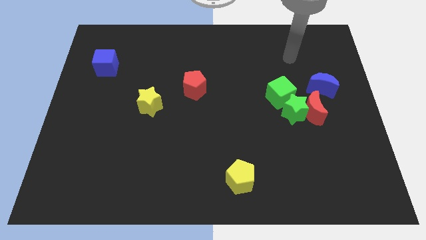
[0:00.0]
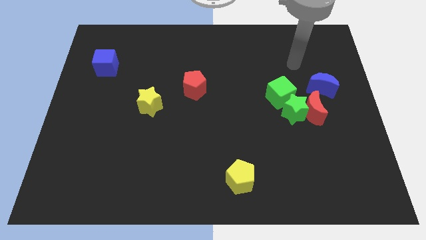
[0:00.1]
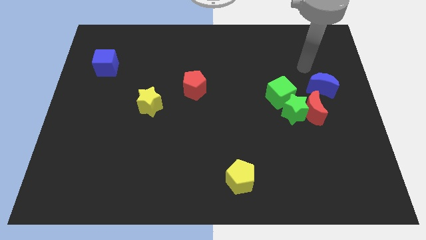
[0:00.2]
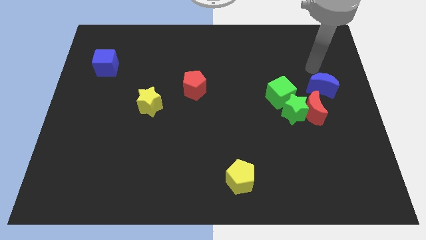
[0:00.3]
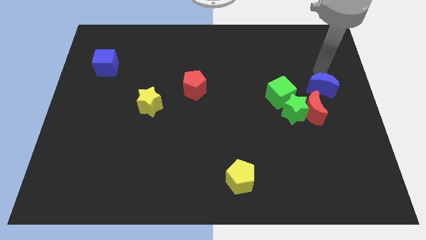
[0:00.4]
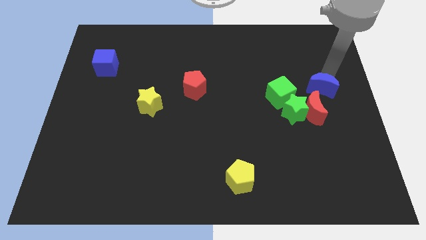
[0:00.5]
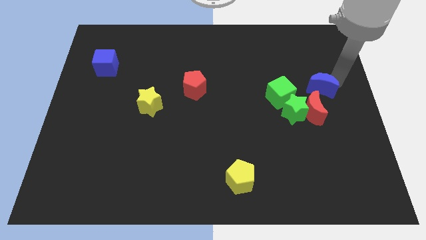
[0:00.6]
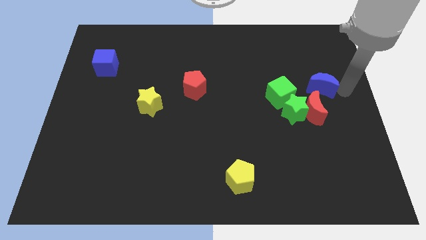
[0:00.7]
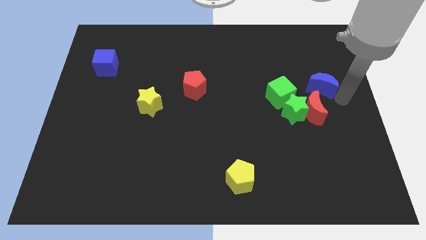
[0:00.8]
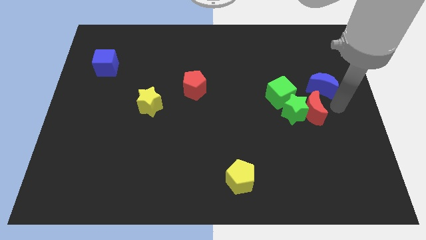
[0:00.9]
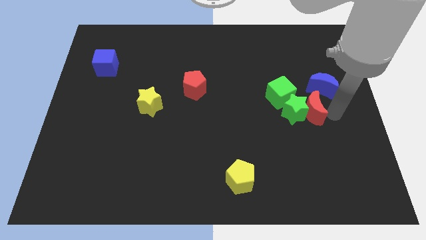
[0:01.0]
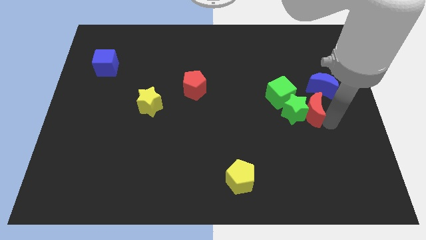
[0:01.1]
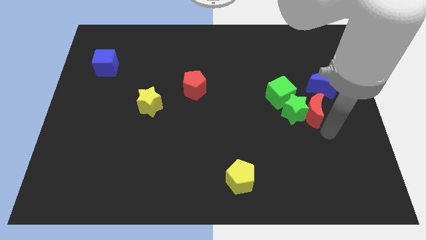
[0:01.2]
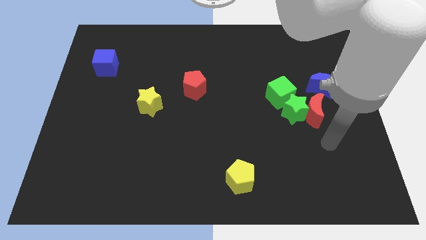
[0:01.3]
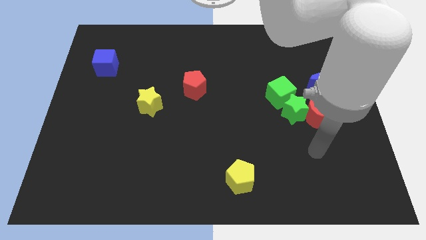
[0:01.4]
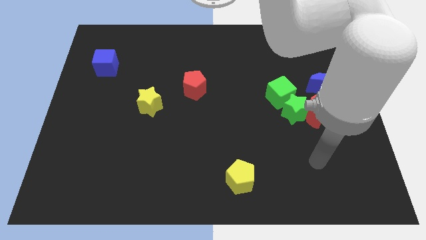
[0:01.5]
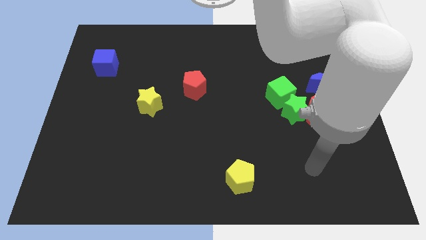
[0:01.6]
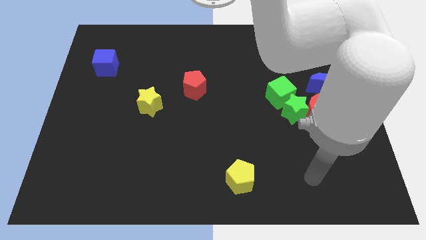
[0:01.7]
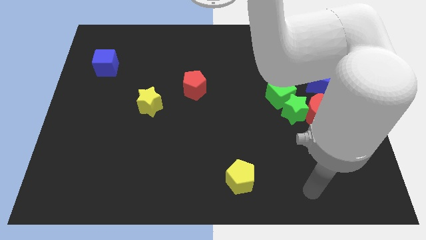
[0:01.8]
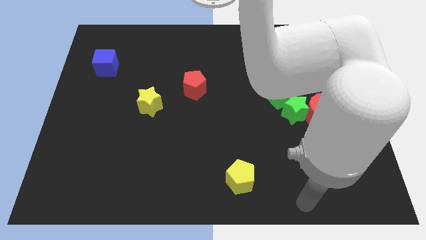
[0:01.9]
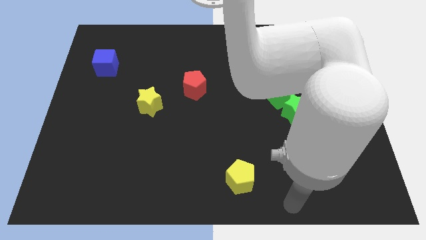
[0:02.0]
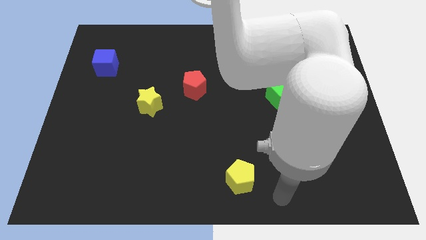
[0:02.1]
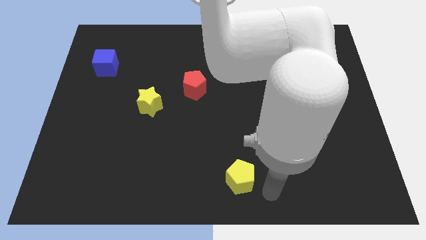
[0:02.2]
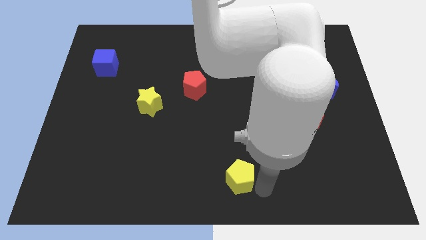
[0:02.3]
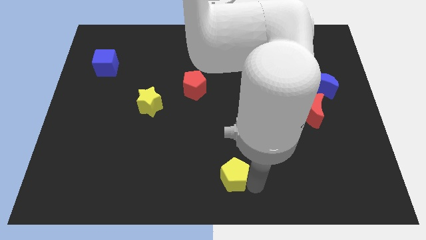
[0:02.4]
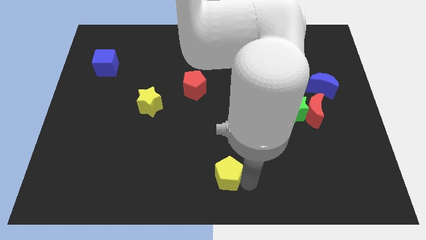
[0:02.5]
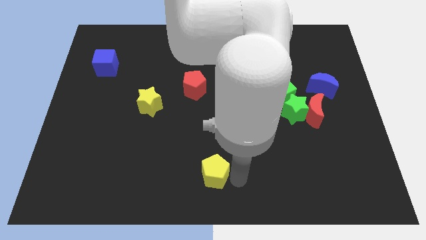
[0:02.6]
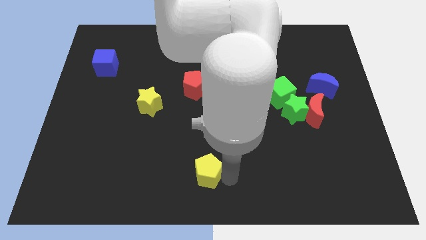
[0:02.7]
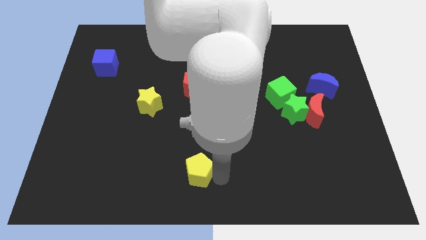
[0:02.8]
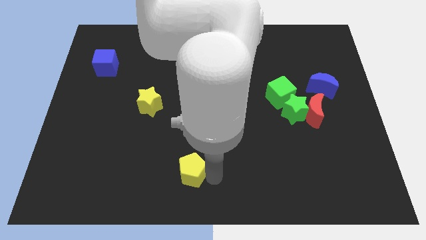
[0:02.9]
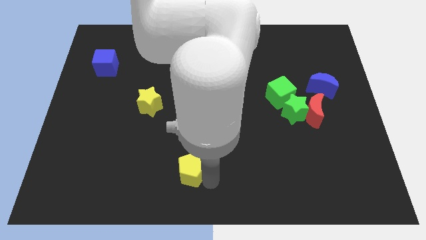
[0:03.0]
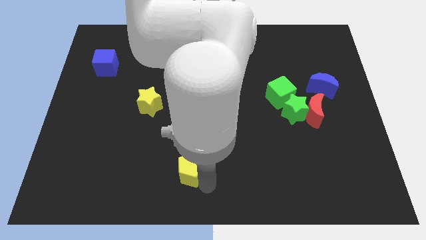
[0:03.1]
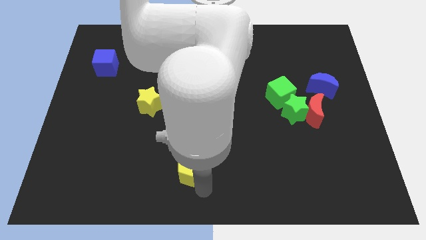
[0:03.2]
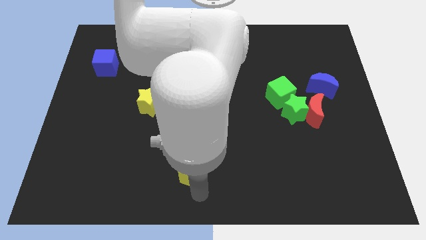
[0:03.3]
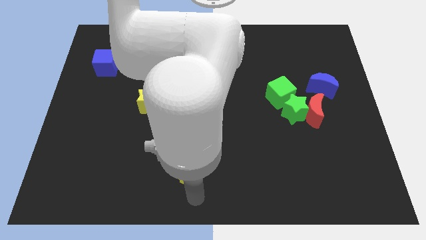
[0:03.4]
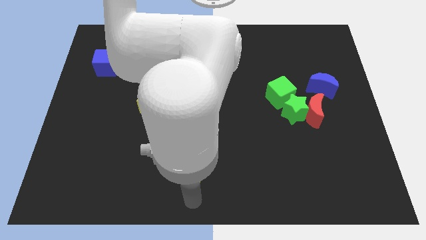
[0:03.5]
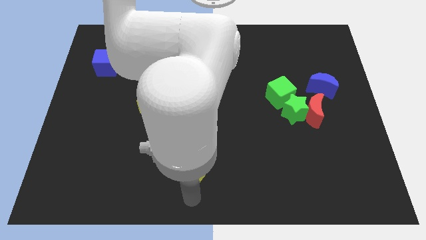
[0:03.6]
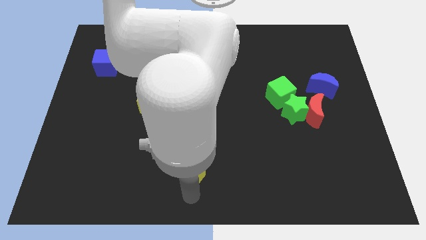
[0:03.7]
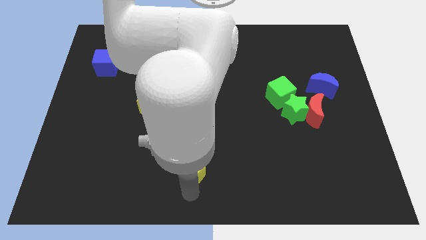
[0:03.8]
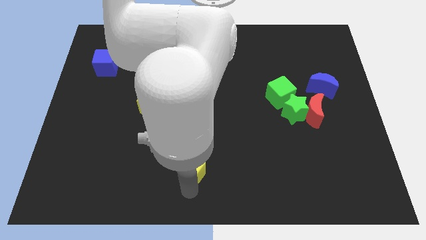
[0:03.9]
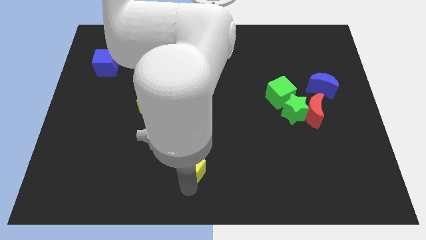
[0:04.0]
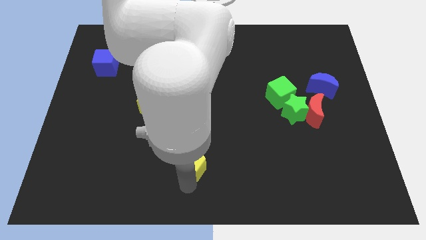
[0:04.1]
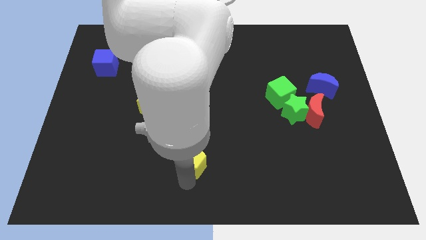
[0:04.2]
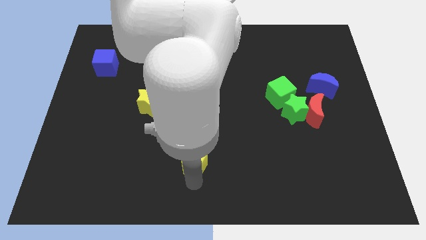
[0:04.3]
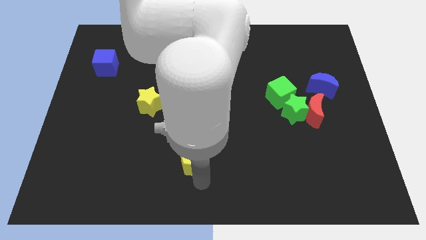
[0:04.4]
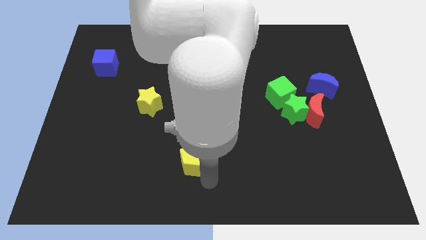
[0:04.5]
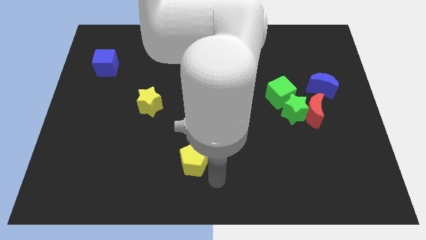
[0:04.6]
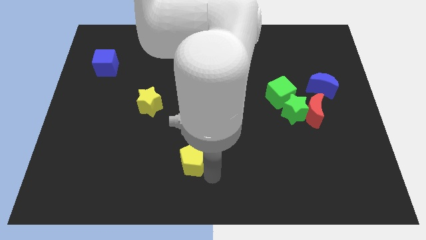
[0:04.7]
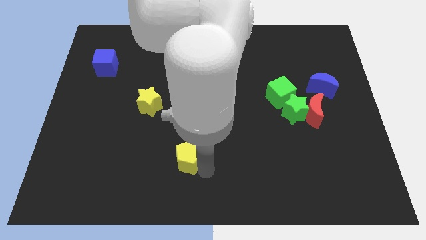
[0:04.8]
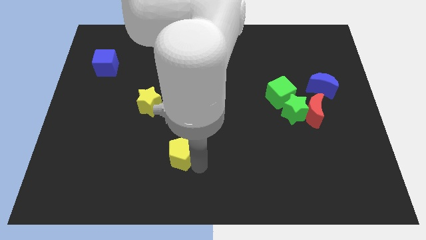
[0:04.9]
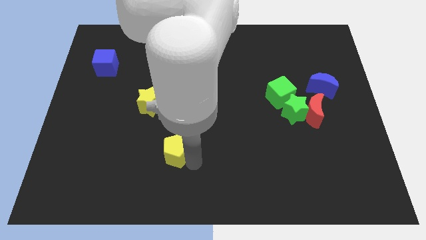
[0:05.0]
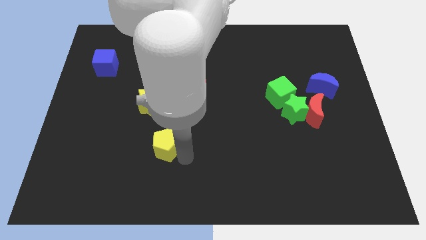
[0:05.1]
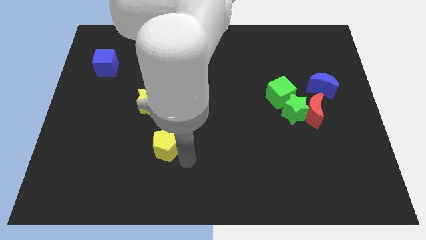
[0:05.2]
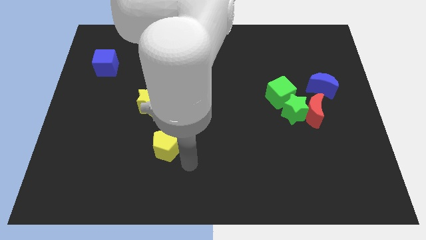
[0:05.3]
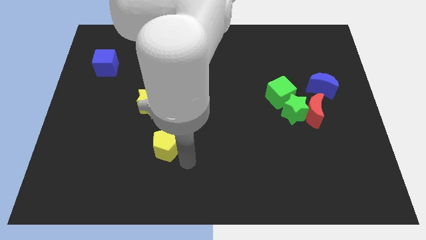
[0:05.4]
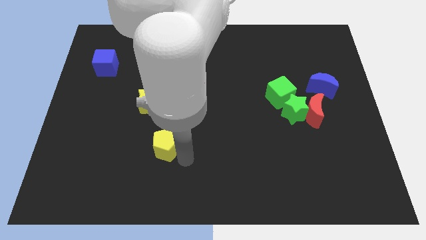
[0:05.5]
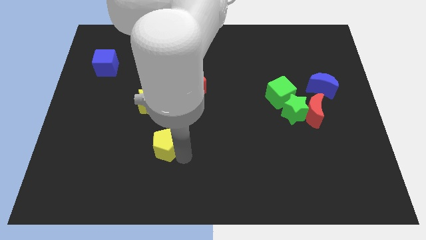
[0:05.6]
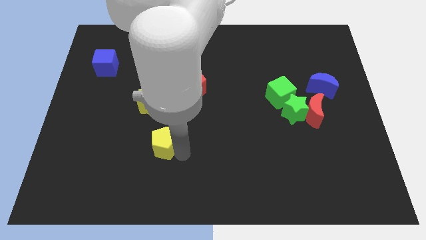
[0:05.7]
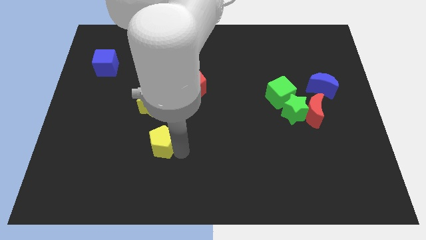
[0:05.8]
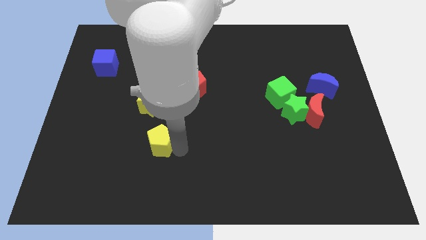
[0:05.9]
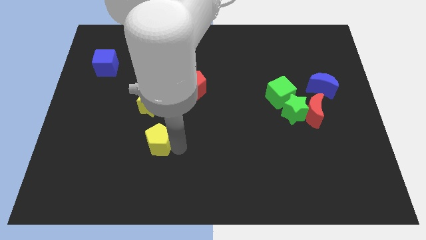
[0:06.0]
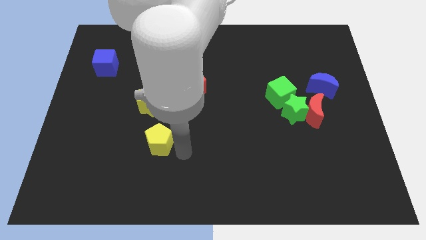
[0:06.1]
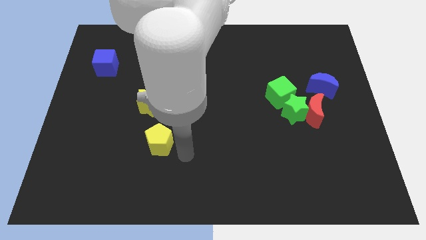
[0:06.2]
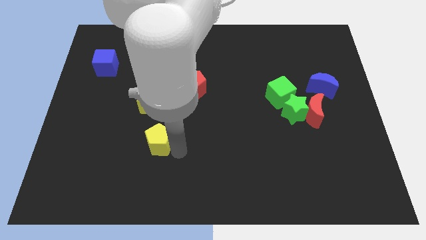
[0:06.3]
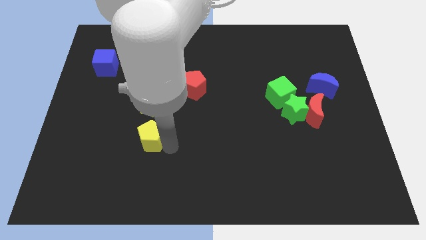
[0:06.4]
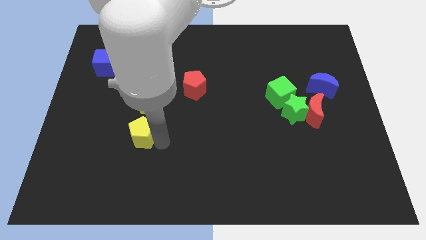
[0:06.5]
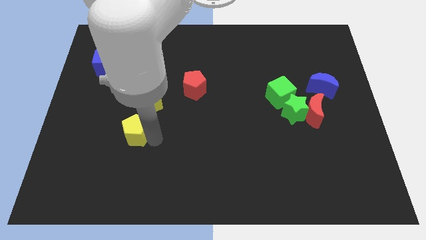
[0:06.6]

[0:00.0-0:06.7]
move the yellow pentagon to the bottom left of the yellow star

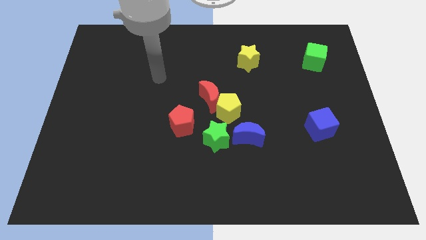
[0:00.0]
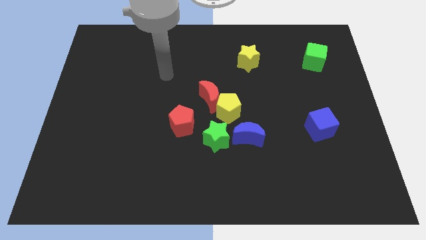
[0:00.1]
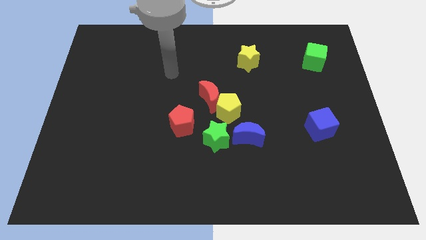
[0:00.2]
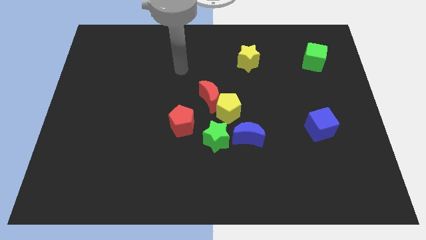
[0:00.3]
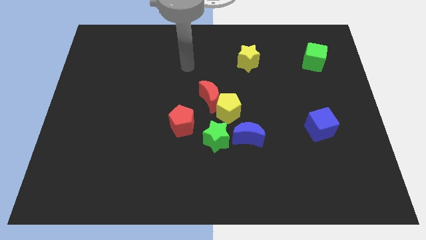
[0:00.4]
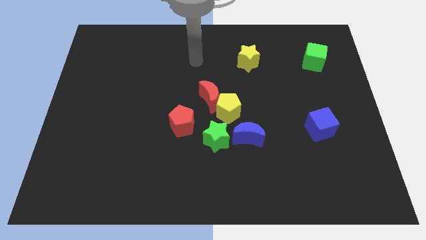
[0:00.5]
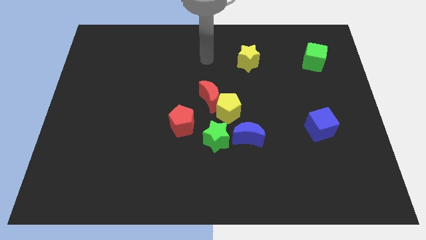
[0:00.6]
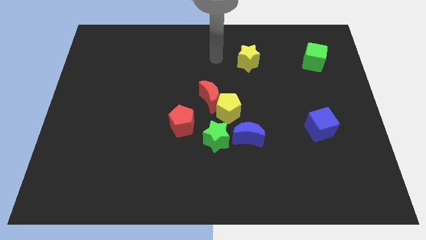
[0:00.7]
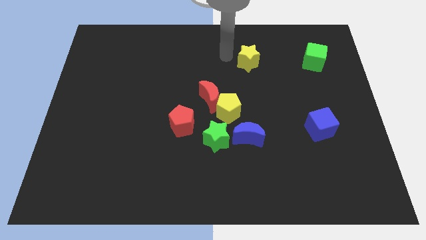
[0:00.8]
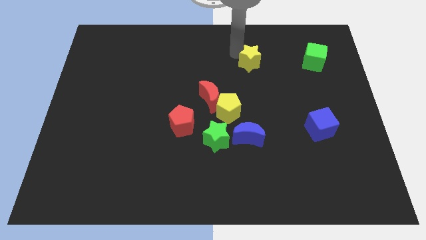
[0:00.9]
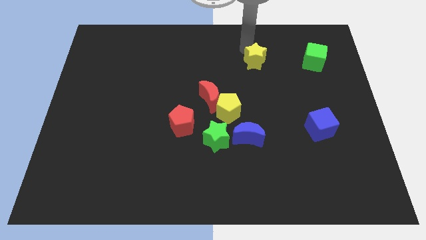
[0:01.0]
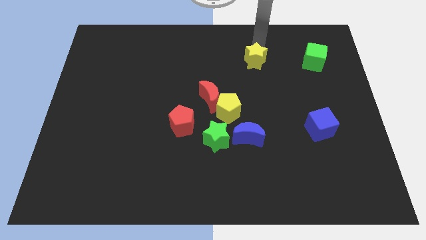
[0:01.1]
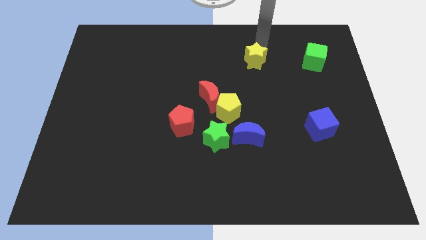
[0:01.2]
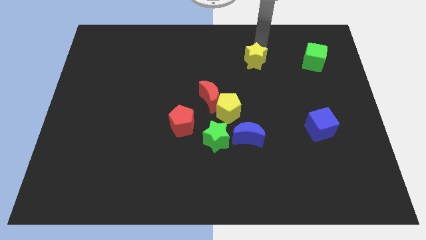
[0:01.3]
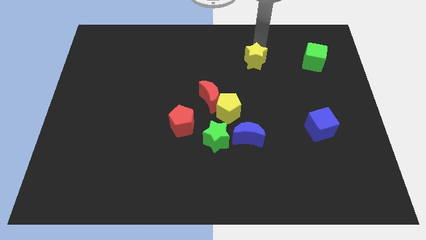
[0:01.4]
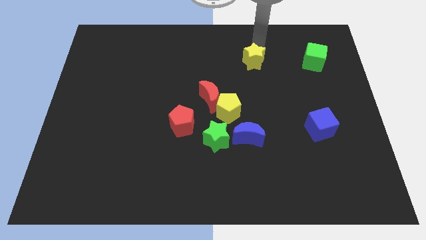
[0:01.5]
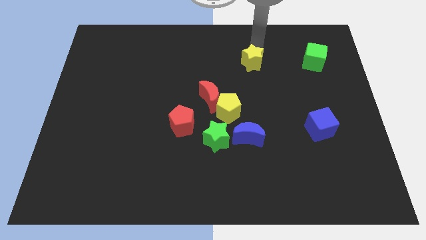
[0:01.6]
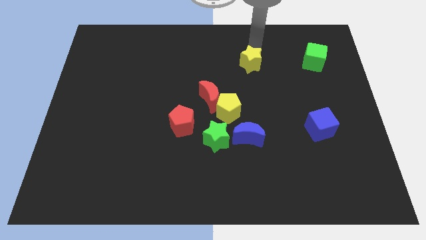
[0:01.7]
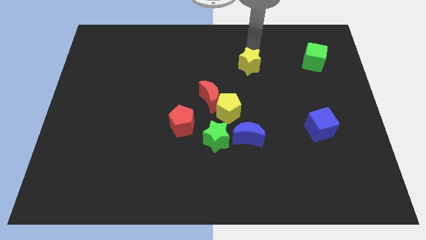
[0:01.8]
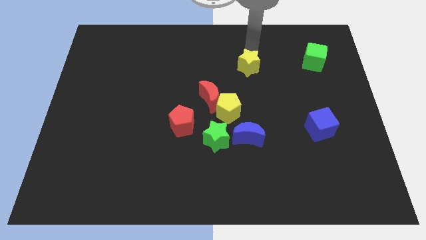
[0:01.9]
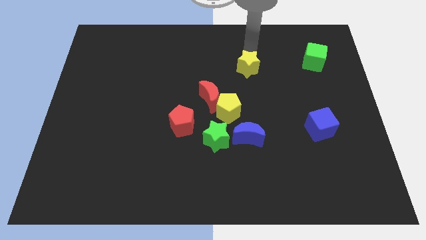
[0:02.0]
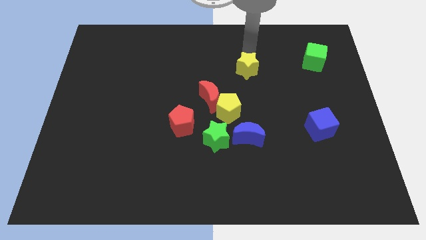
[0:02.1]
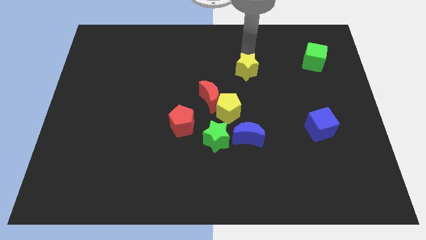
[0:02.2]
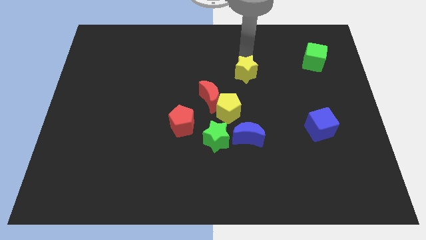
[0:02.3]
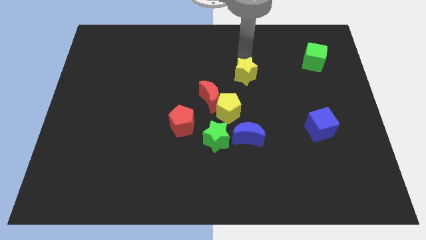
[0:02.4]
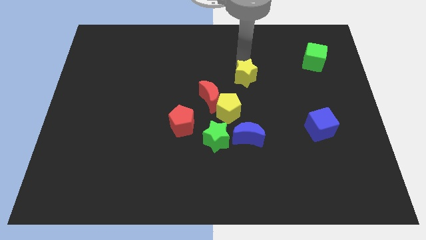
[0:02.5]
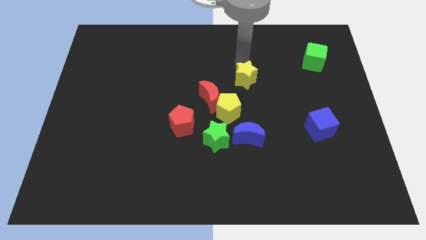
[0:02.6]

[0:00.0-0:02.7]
push the yellow star diagonally up and to the right of the yellow pentagon
